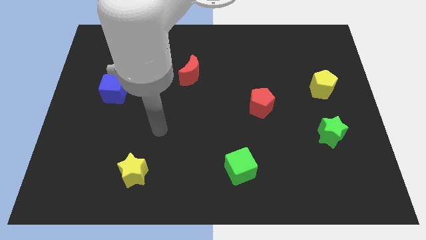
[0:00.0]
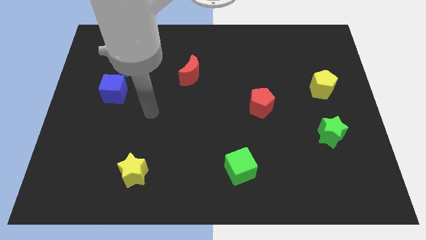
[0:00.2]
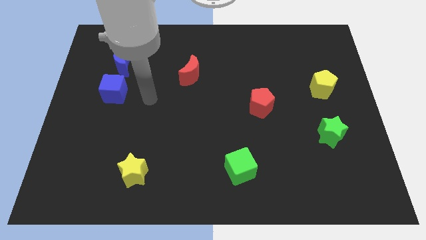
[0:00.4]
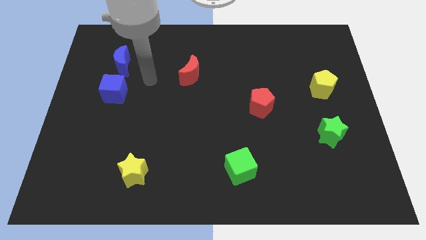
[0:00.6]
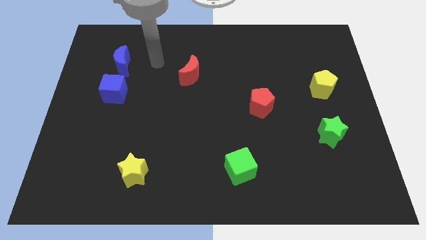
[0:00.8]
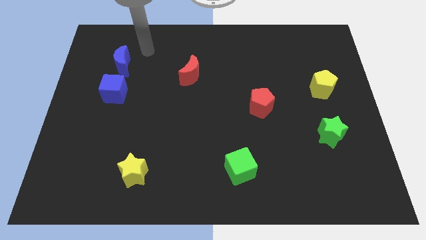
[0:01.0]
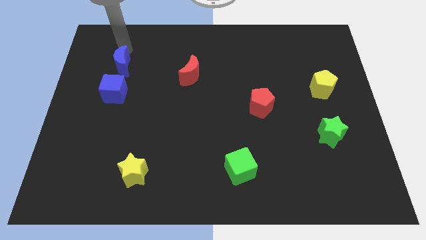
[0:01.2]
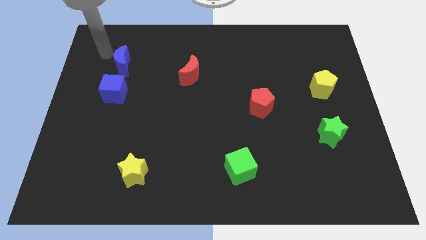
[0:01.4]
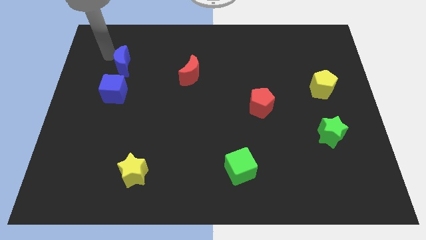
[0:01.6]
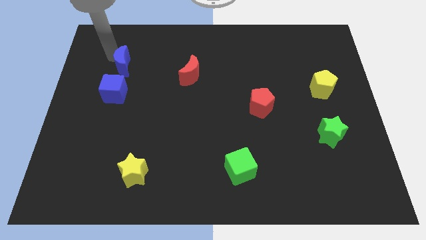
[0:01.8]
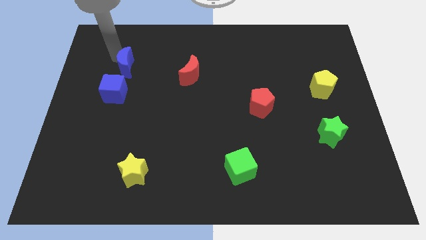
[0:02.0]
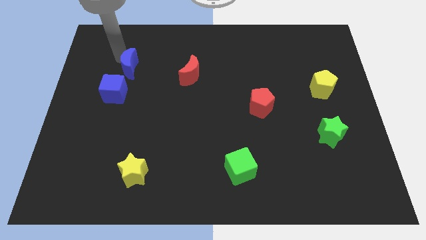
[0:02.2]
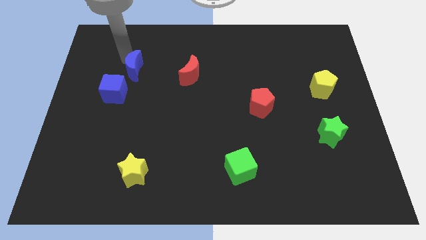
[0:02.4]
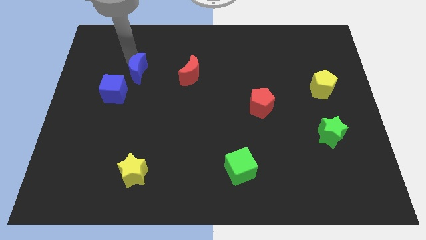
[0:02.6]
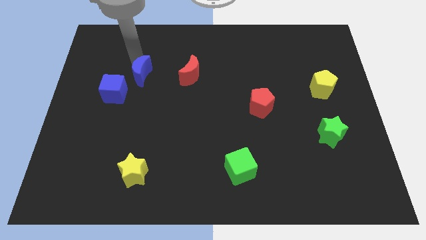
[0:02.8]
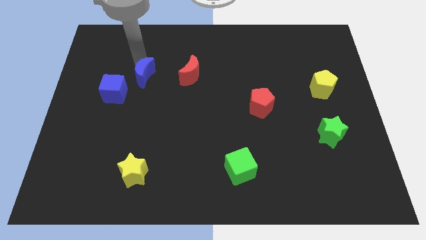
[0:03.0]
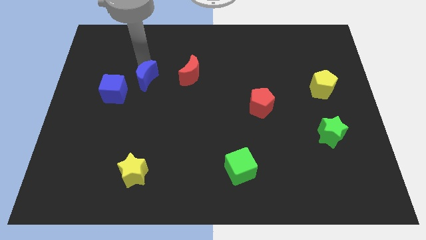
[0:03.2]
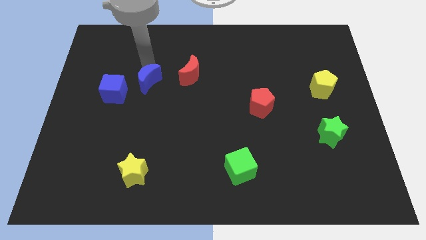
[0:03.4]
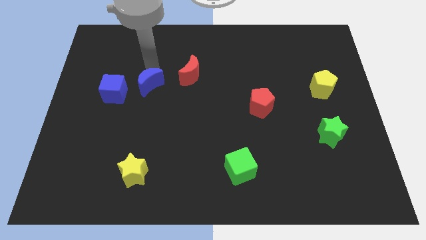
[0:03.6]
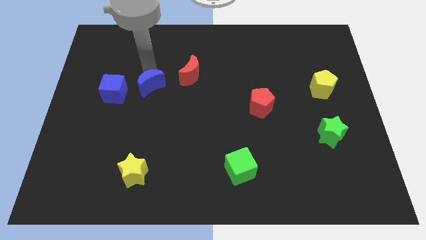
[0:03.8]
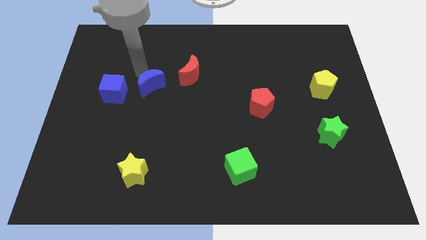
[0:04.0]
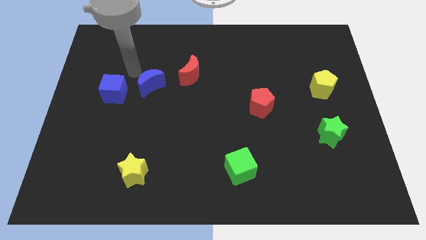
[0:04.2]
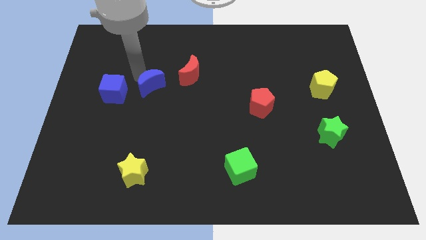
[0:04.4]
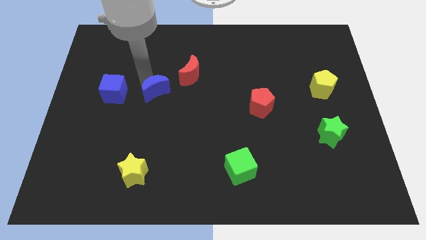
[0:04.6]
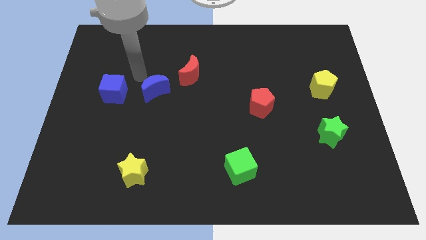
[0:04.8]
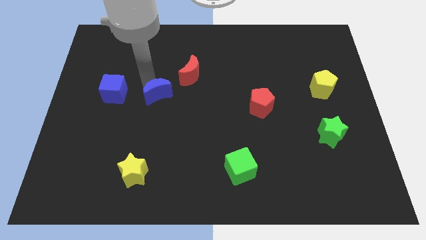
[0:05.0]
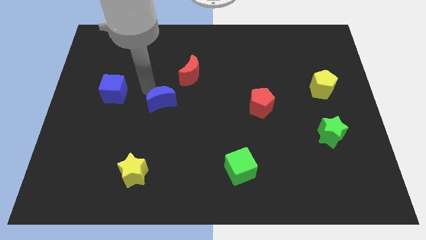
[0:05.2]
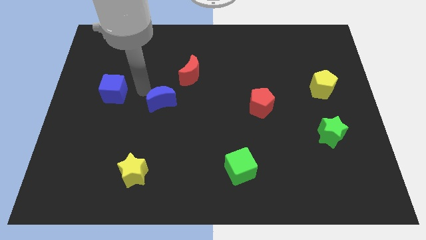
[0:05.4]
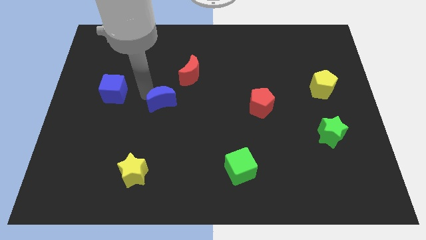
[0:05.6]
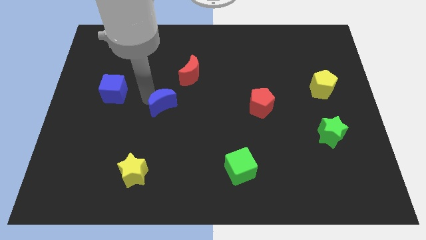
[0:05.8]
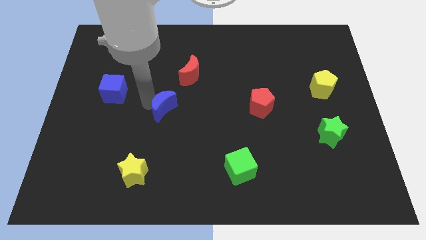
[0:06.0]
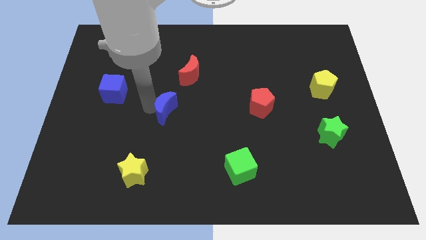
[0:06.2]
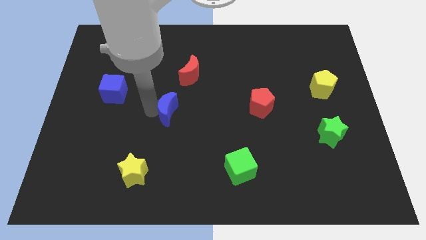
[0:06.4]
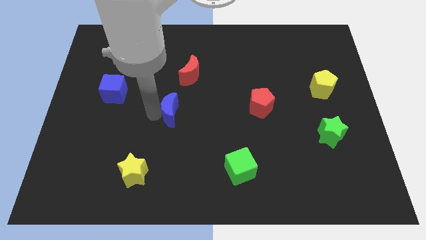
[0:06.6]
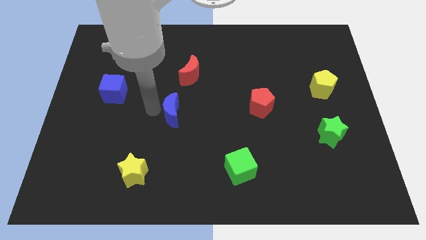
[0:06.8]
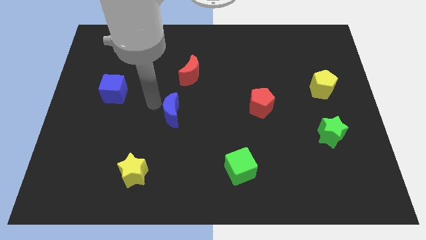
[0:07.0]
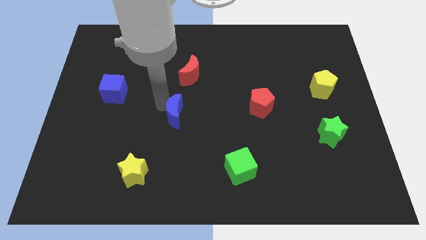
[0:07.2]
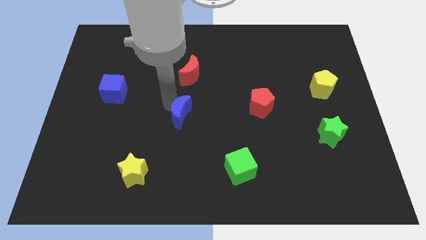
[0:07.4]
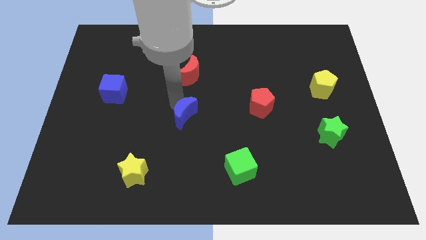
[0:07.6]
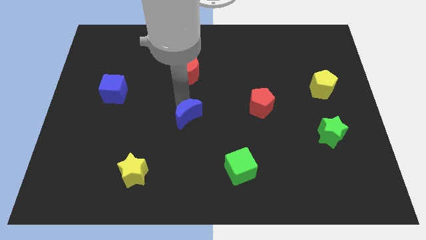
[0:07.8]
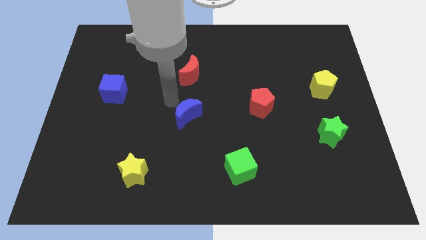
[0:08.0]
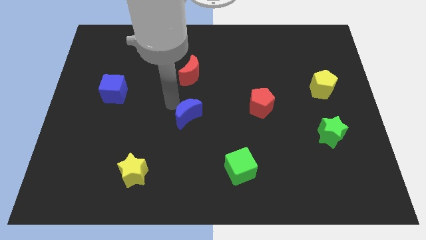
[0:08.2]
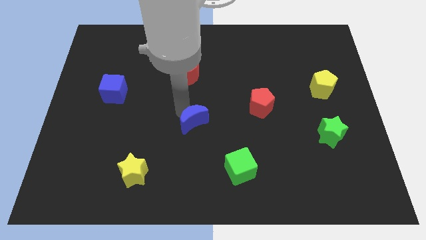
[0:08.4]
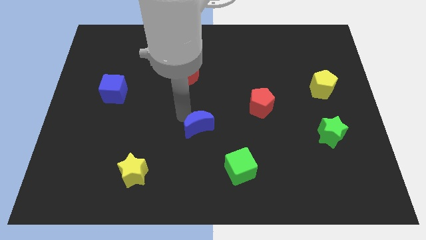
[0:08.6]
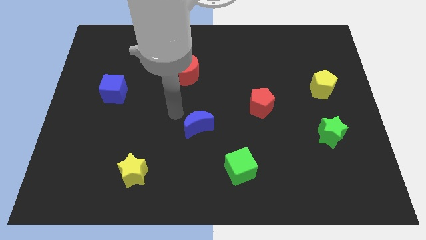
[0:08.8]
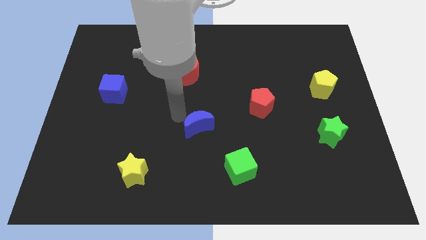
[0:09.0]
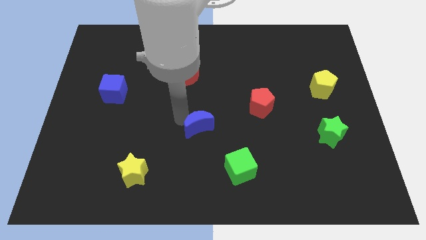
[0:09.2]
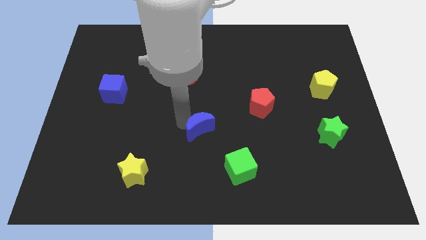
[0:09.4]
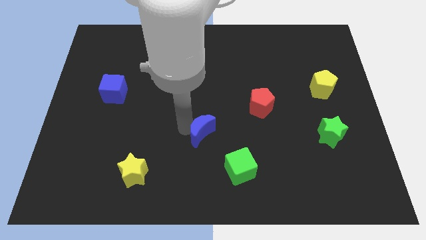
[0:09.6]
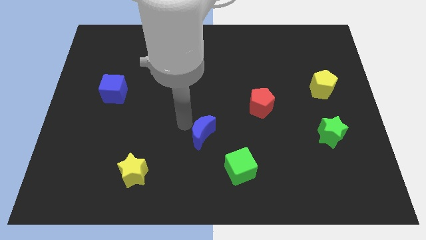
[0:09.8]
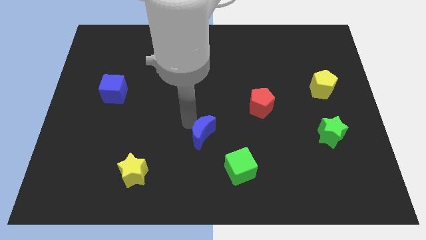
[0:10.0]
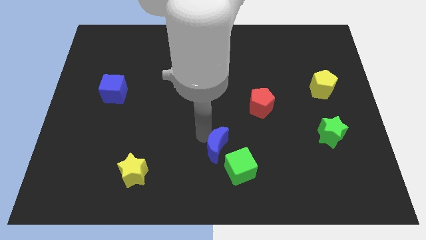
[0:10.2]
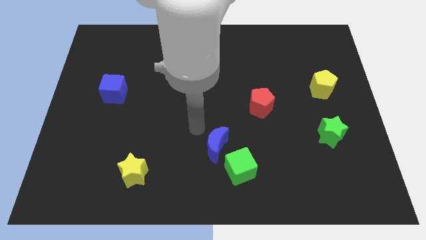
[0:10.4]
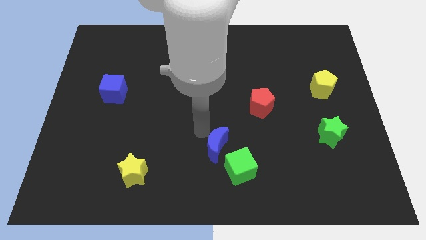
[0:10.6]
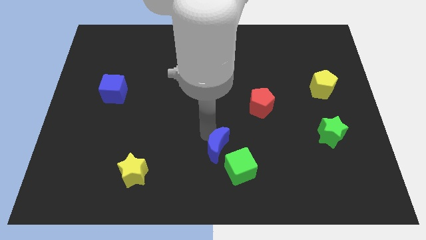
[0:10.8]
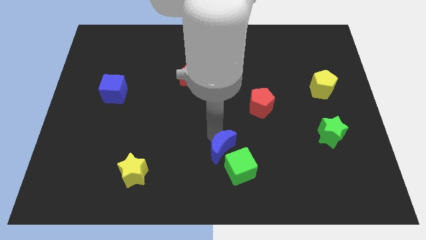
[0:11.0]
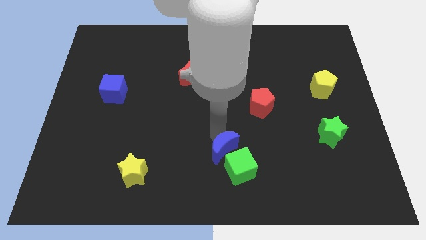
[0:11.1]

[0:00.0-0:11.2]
put the blue moon next to the green cube

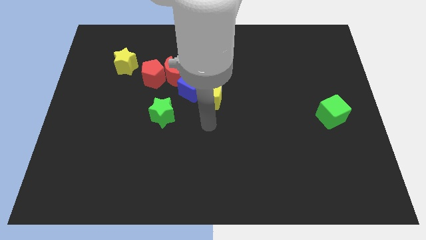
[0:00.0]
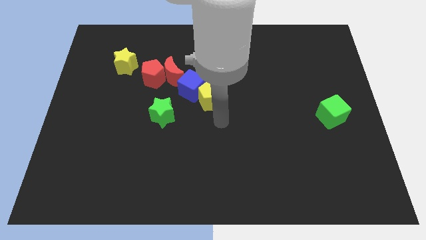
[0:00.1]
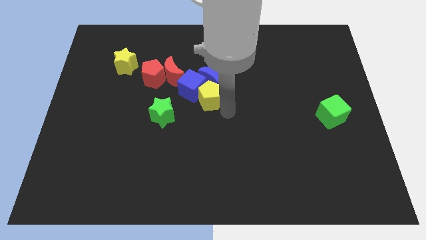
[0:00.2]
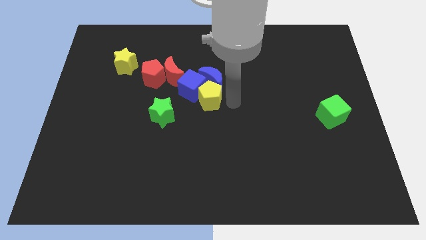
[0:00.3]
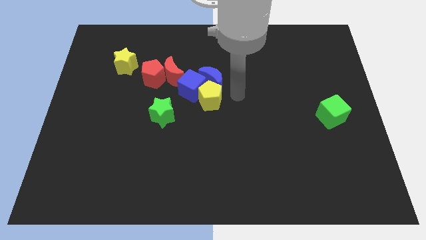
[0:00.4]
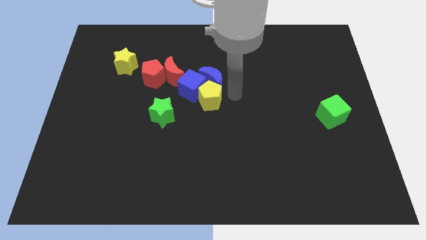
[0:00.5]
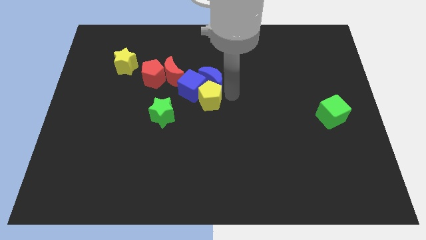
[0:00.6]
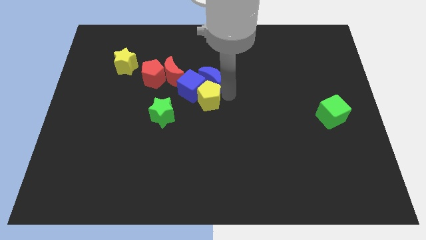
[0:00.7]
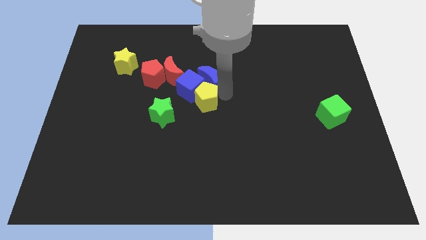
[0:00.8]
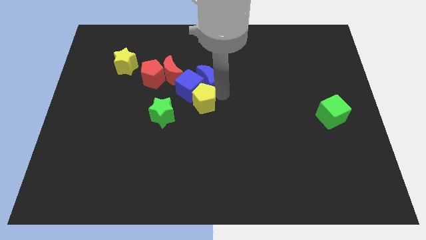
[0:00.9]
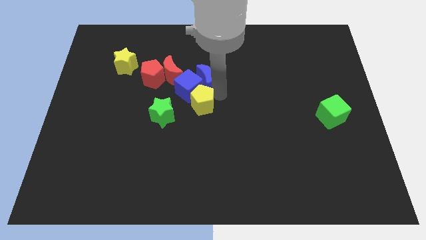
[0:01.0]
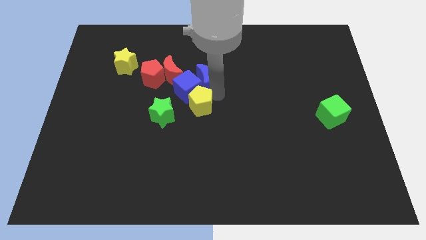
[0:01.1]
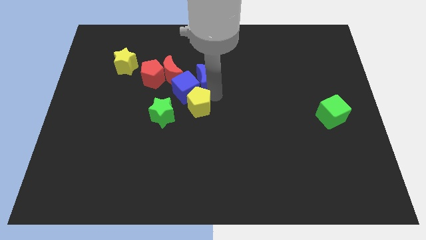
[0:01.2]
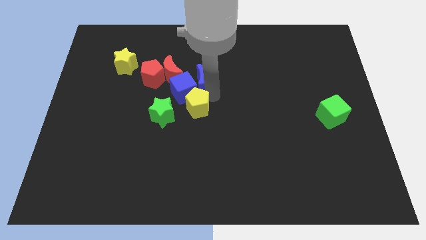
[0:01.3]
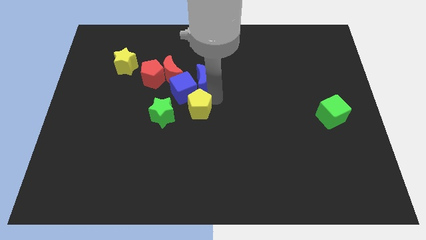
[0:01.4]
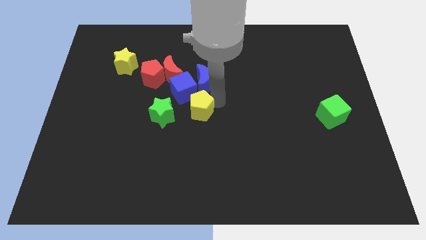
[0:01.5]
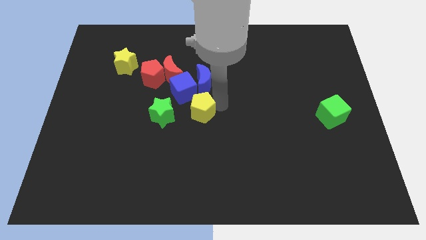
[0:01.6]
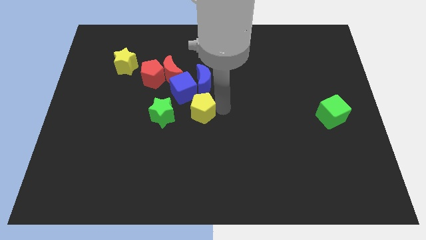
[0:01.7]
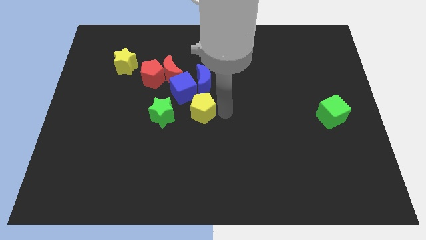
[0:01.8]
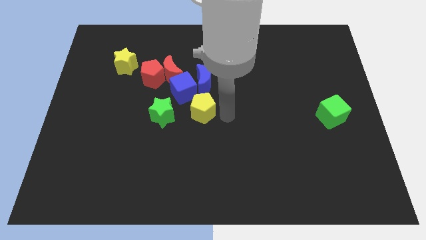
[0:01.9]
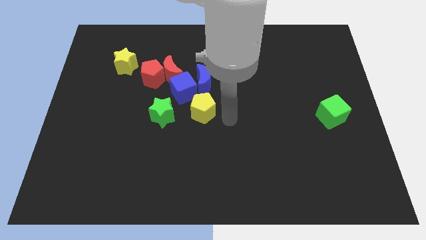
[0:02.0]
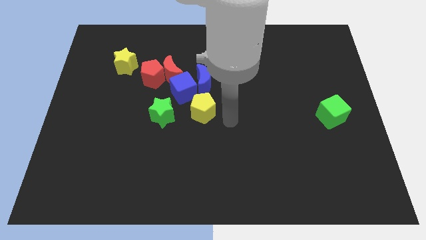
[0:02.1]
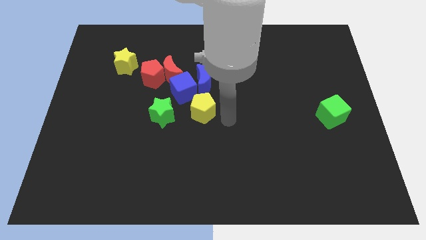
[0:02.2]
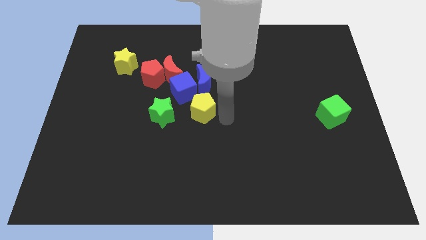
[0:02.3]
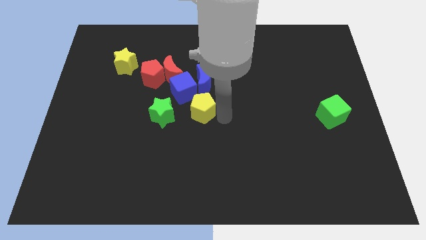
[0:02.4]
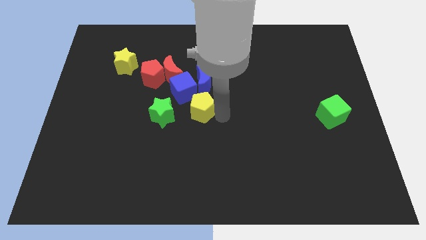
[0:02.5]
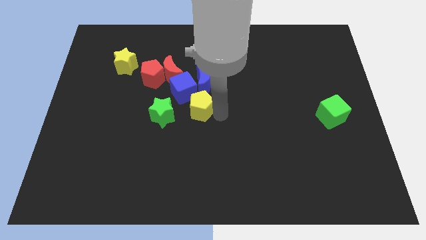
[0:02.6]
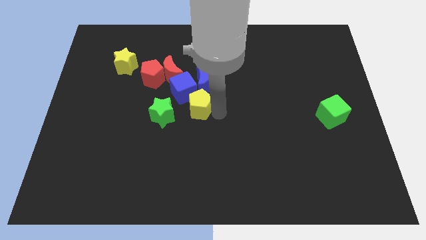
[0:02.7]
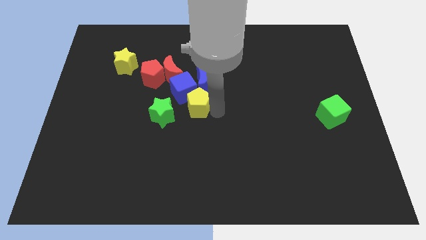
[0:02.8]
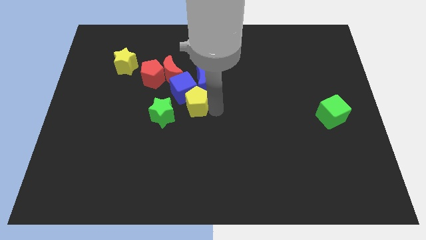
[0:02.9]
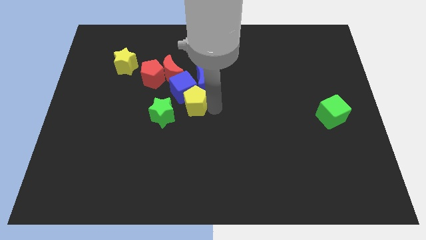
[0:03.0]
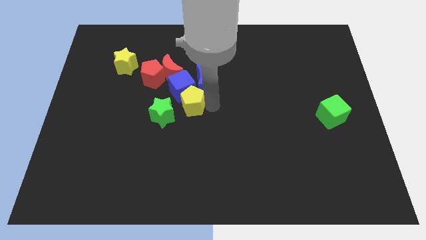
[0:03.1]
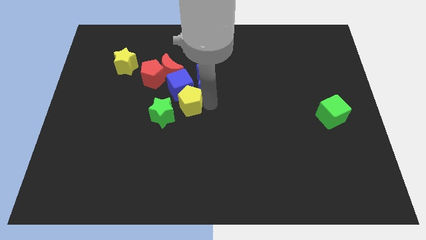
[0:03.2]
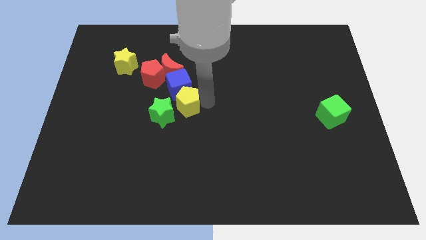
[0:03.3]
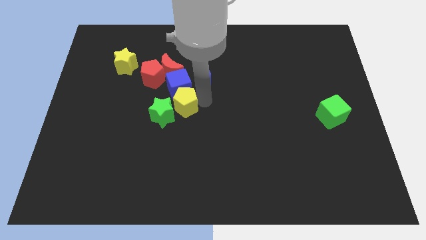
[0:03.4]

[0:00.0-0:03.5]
push the yellow pentagon towards the green star
